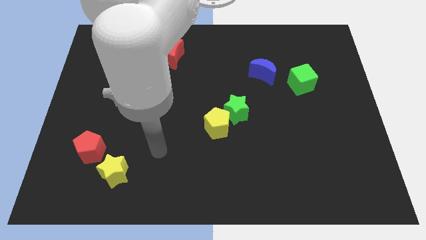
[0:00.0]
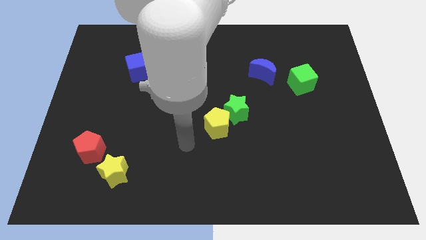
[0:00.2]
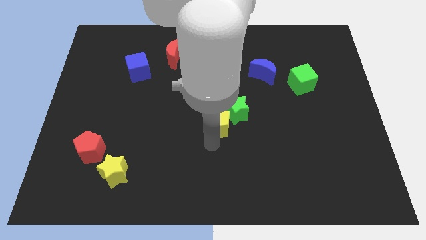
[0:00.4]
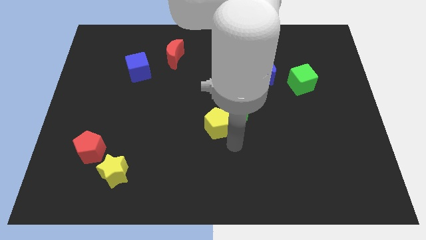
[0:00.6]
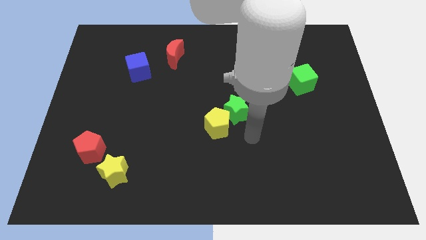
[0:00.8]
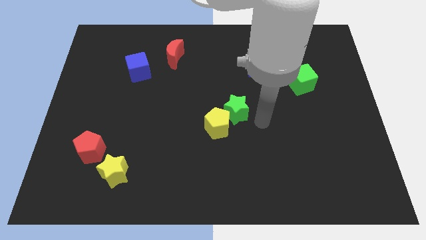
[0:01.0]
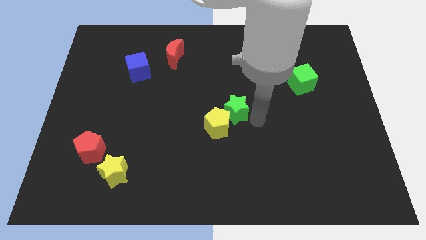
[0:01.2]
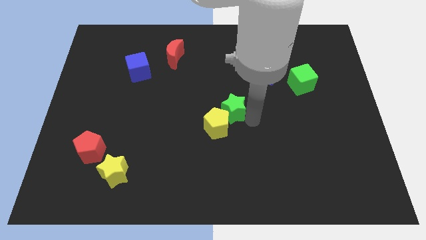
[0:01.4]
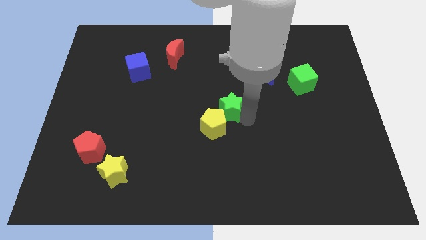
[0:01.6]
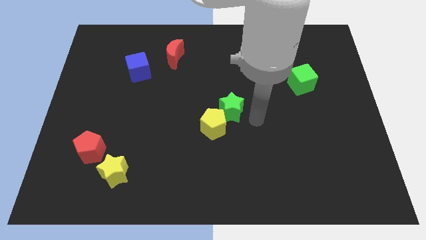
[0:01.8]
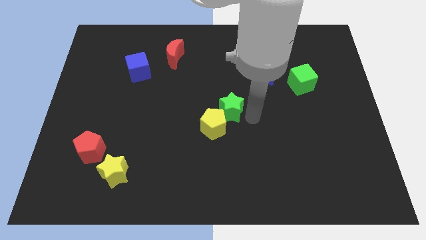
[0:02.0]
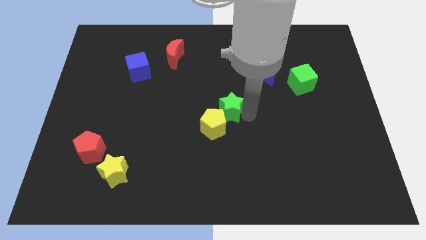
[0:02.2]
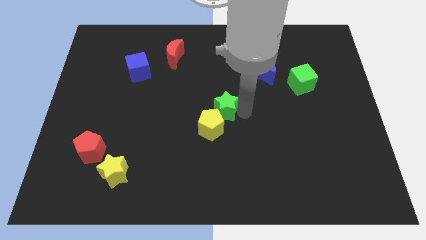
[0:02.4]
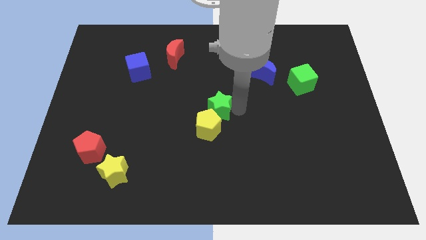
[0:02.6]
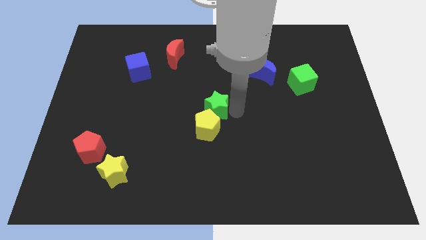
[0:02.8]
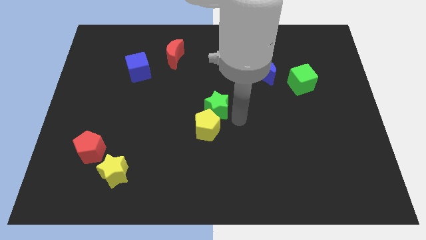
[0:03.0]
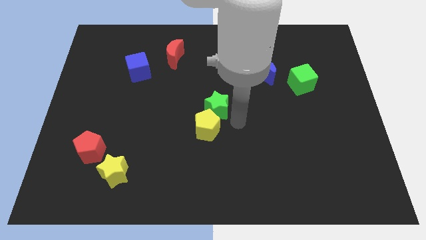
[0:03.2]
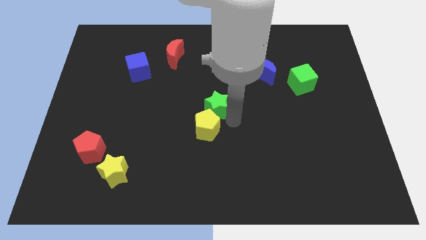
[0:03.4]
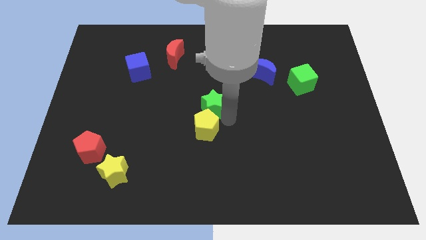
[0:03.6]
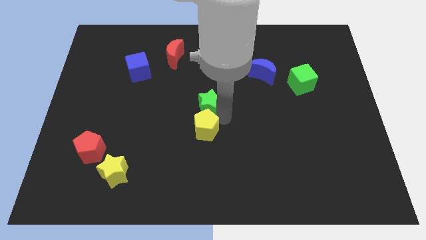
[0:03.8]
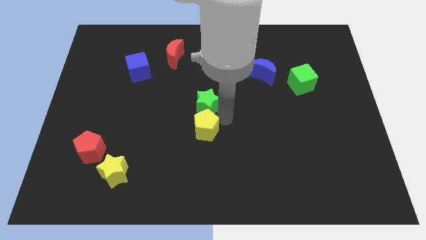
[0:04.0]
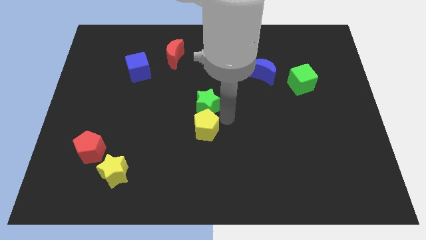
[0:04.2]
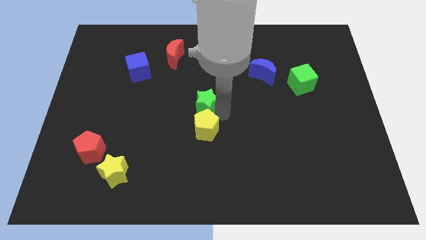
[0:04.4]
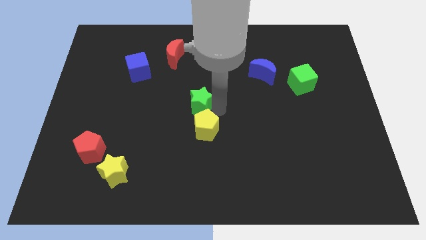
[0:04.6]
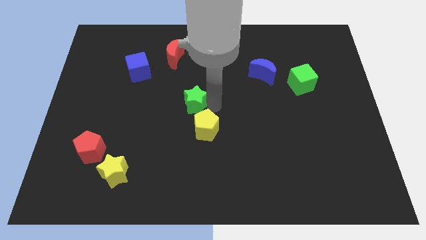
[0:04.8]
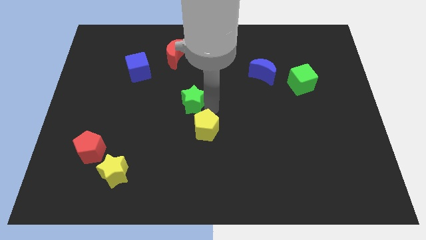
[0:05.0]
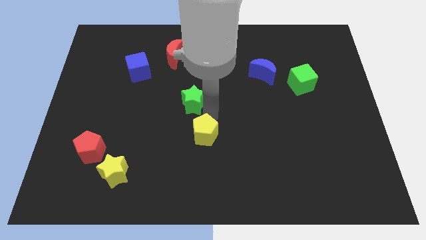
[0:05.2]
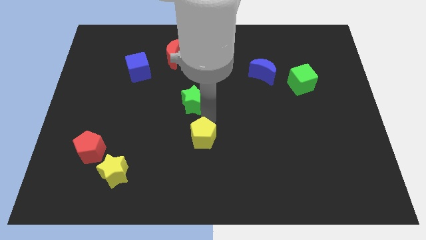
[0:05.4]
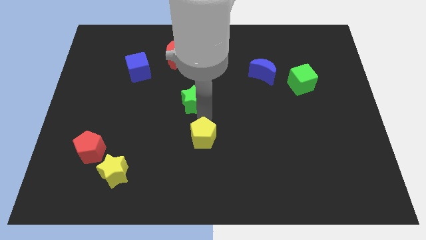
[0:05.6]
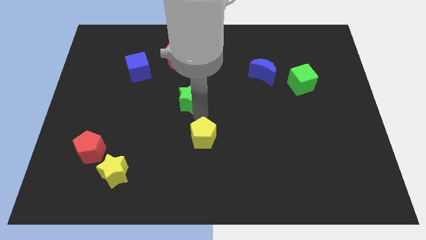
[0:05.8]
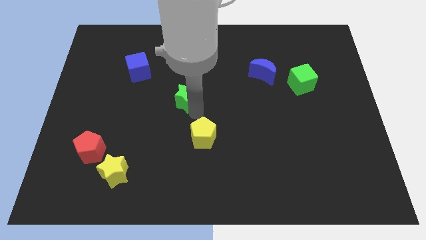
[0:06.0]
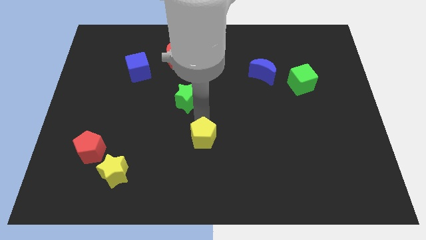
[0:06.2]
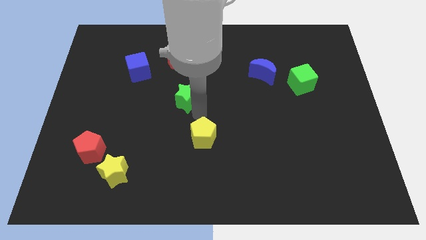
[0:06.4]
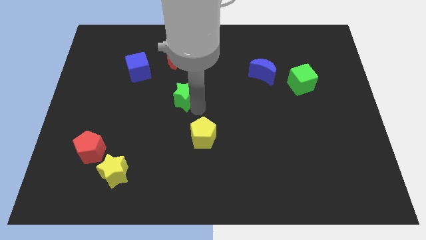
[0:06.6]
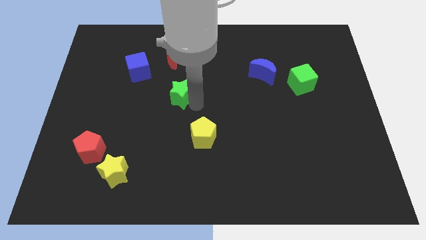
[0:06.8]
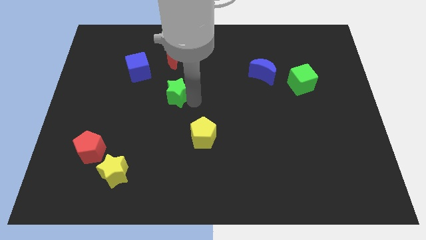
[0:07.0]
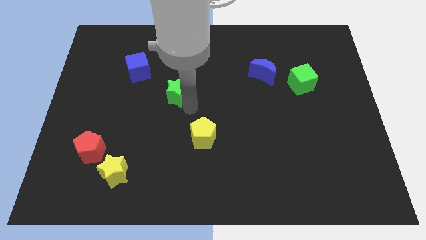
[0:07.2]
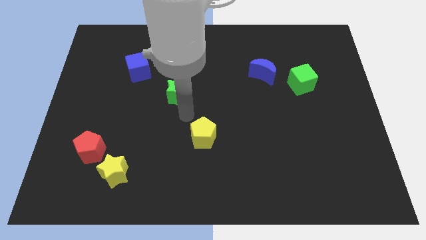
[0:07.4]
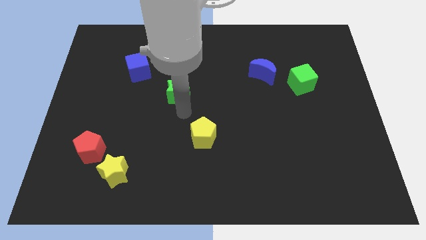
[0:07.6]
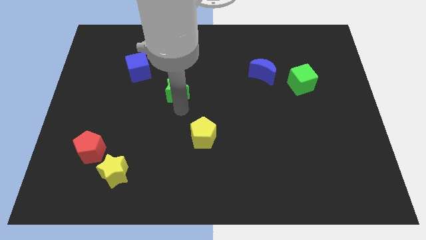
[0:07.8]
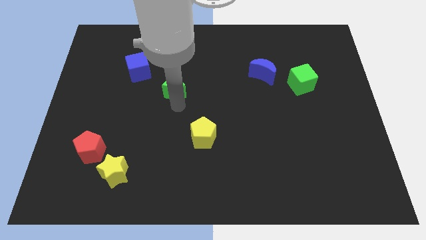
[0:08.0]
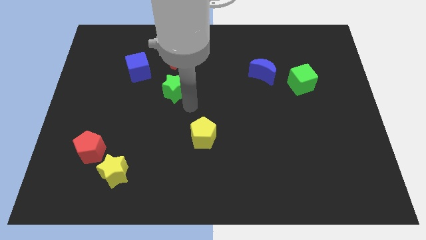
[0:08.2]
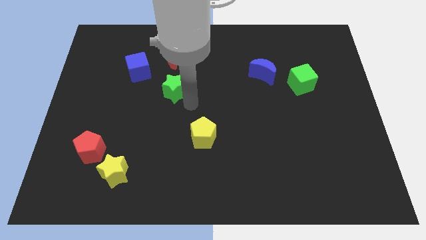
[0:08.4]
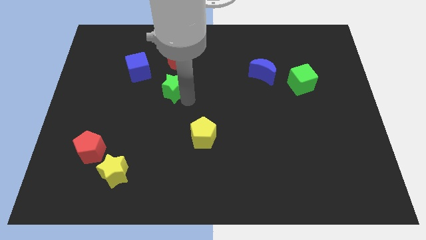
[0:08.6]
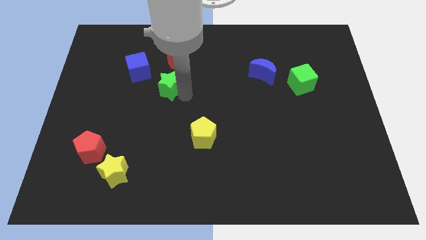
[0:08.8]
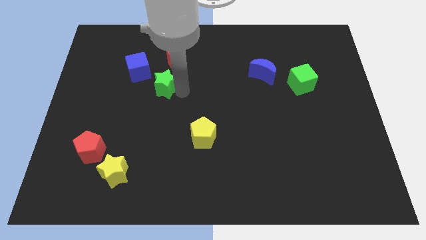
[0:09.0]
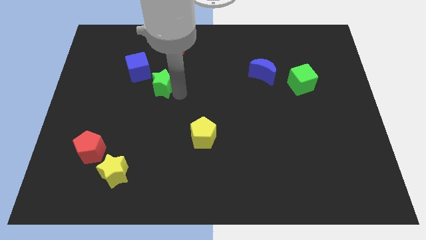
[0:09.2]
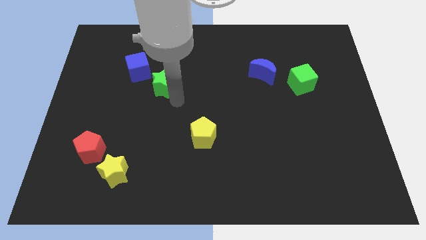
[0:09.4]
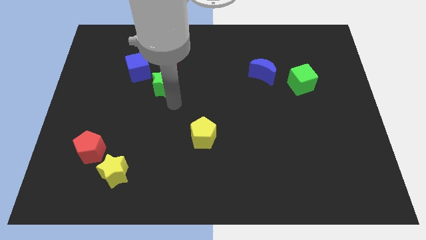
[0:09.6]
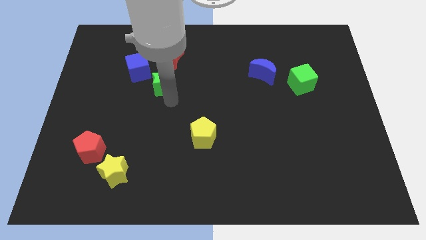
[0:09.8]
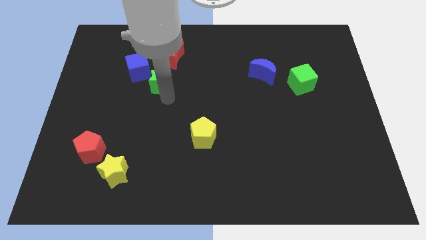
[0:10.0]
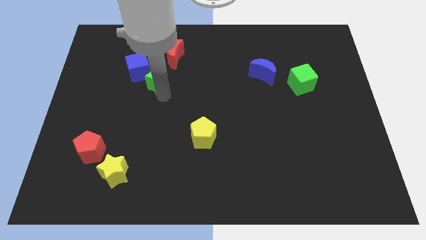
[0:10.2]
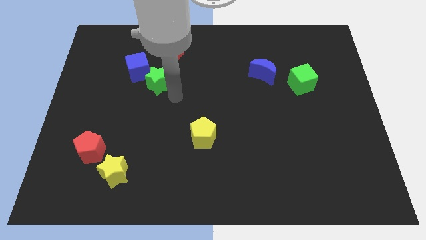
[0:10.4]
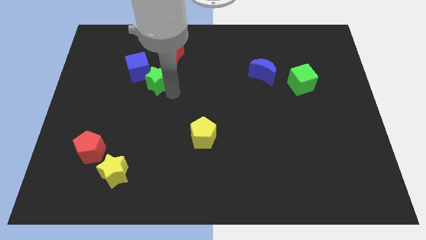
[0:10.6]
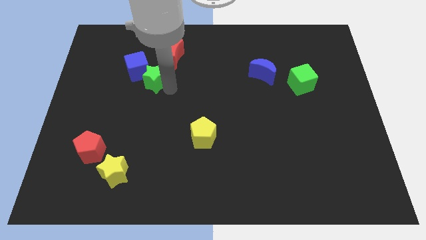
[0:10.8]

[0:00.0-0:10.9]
slide the green star close to the blue cube

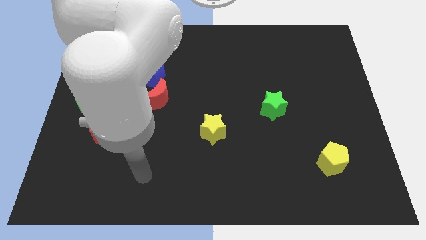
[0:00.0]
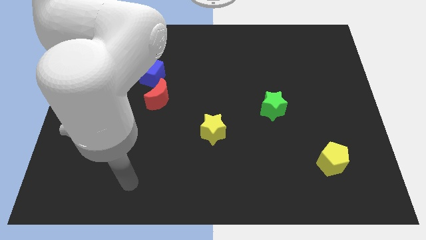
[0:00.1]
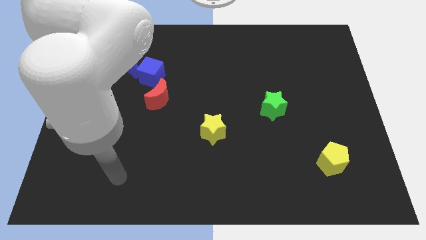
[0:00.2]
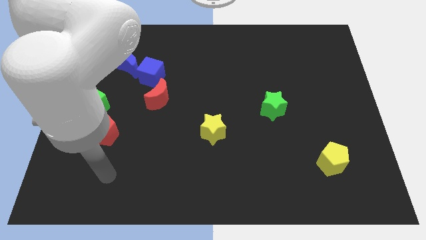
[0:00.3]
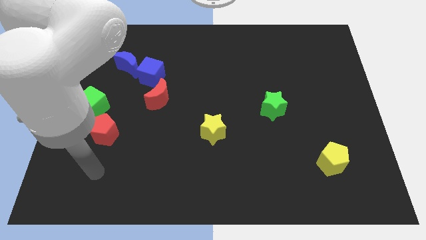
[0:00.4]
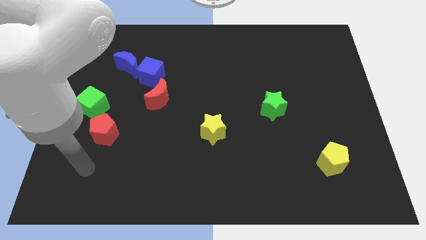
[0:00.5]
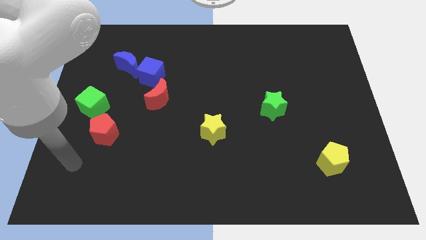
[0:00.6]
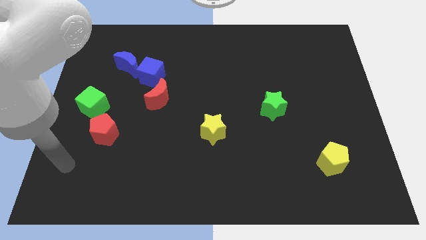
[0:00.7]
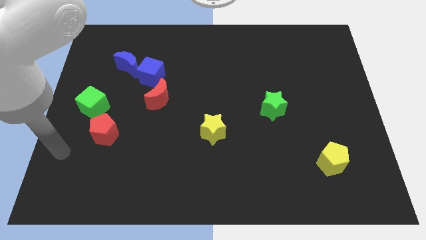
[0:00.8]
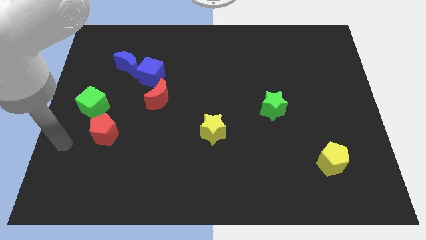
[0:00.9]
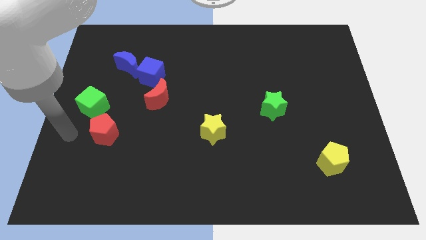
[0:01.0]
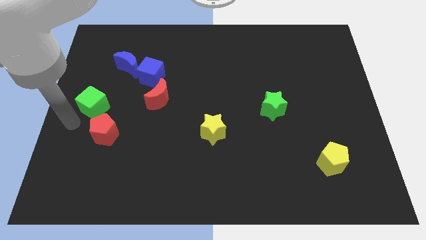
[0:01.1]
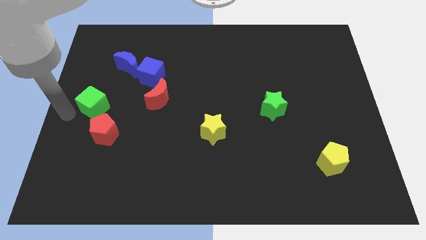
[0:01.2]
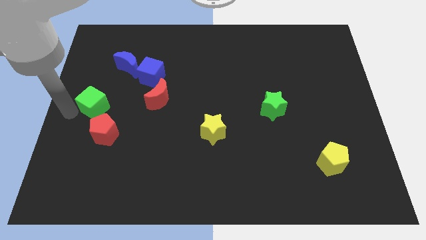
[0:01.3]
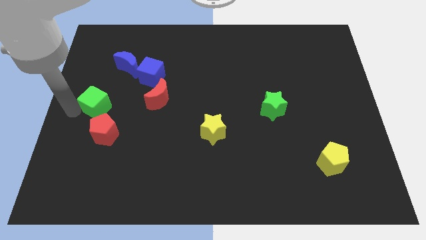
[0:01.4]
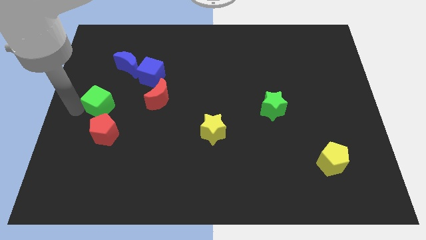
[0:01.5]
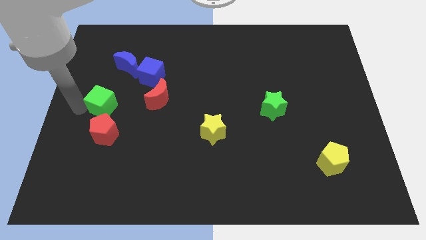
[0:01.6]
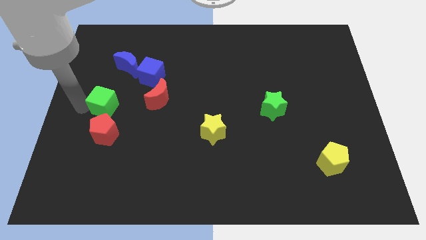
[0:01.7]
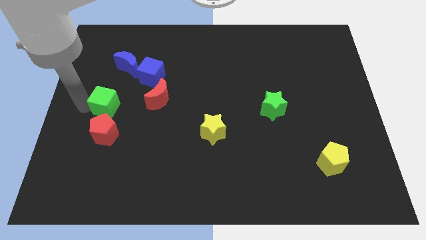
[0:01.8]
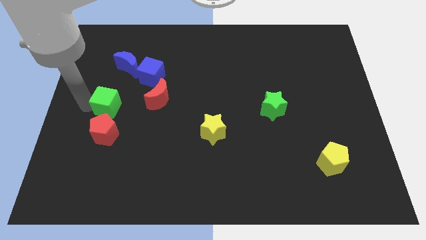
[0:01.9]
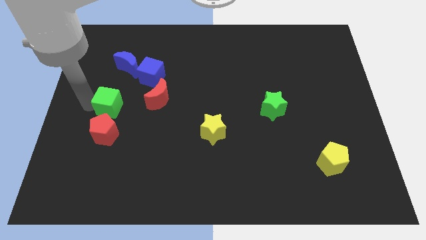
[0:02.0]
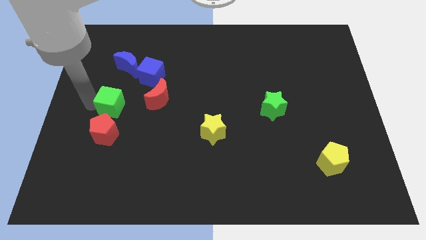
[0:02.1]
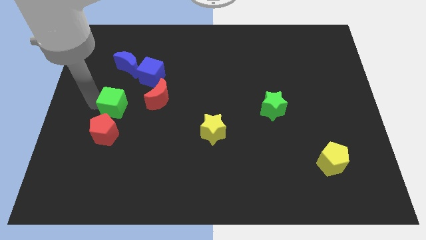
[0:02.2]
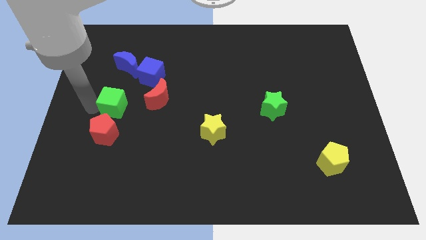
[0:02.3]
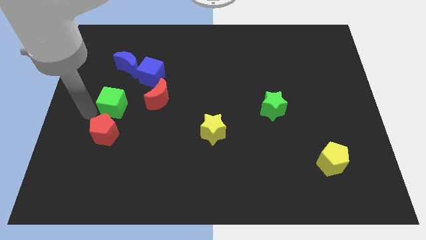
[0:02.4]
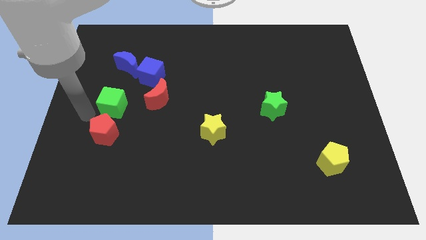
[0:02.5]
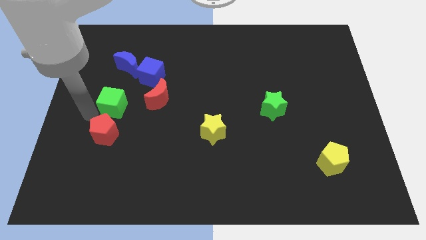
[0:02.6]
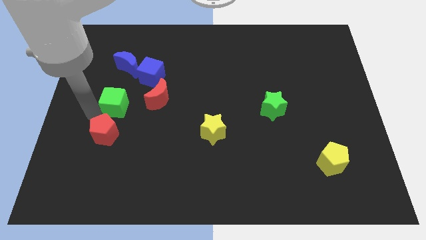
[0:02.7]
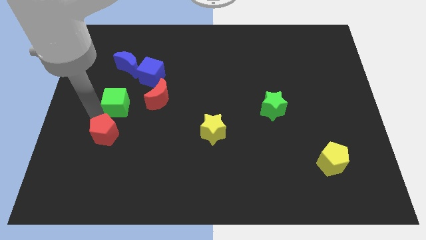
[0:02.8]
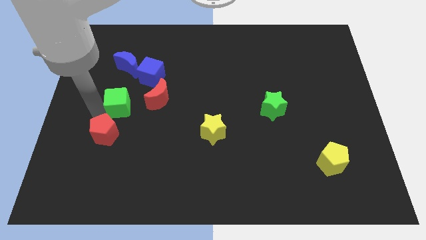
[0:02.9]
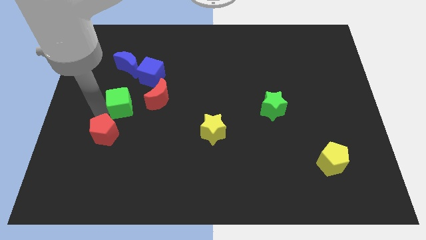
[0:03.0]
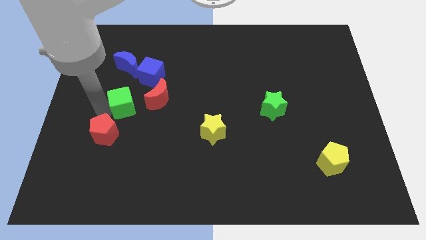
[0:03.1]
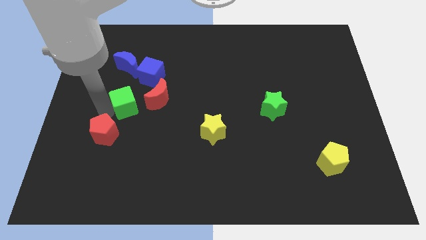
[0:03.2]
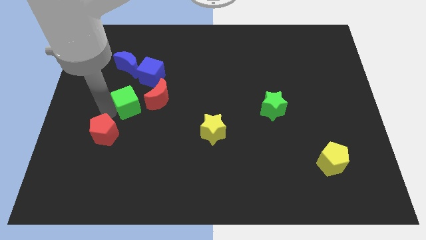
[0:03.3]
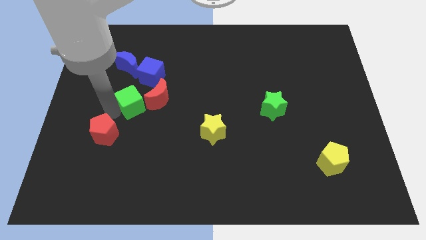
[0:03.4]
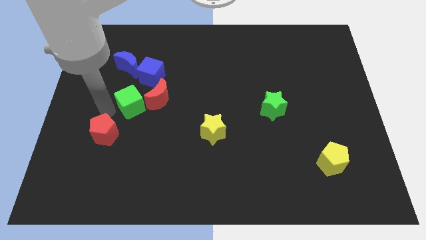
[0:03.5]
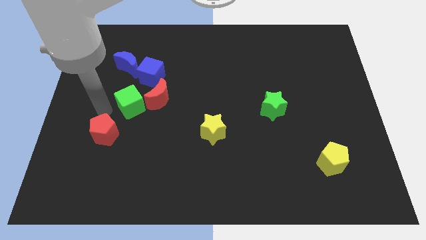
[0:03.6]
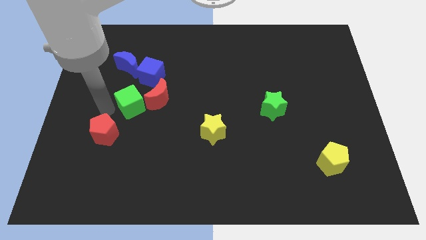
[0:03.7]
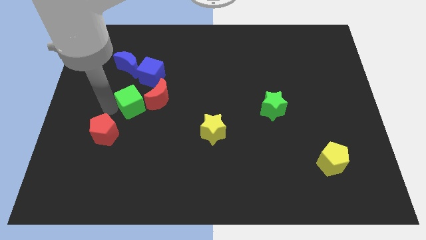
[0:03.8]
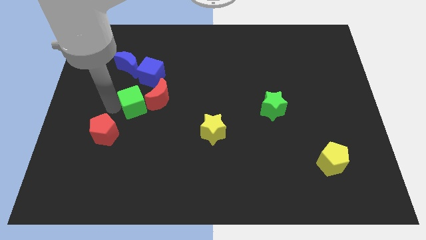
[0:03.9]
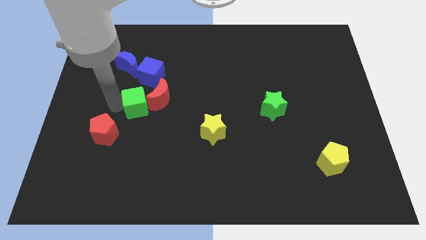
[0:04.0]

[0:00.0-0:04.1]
move the green cube towards the red moon
